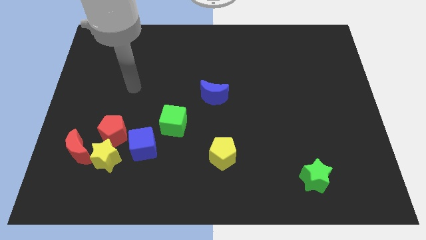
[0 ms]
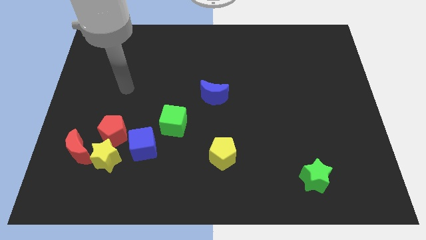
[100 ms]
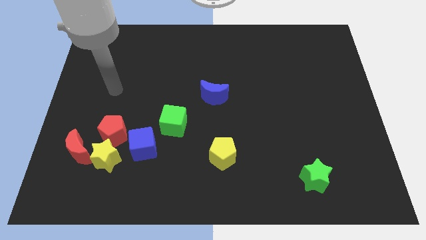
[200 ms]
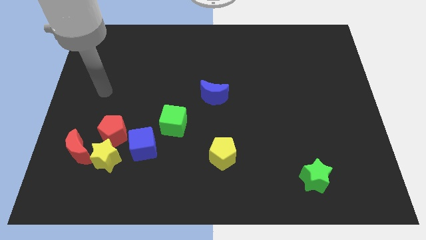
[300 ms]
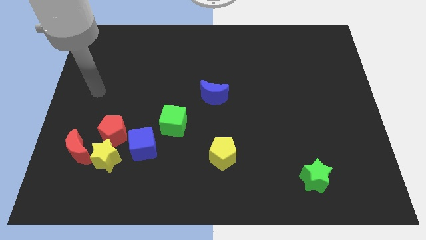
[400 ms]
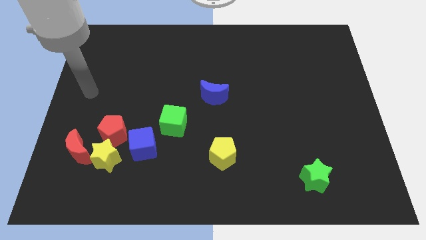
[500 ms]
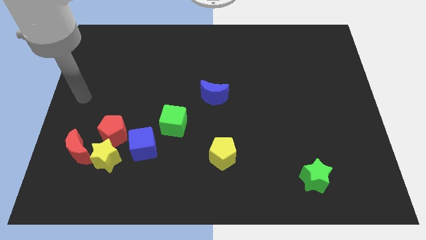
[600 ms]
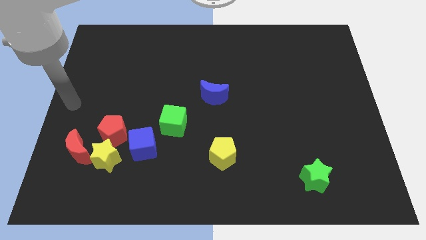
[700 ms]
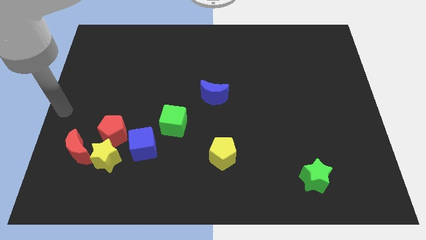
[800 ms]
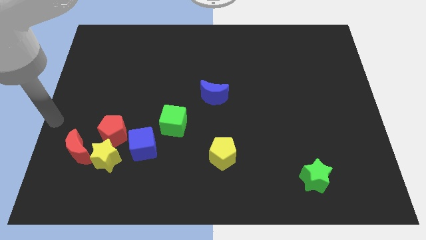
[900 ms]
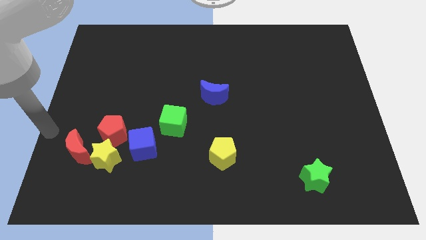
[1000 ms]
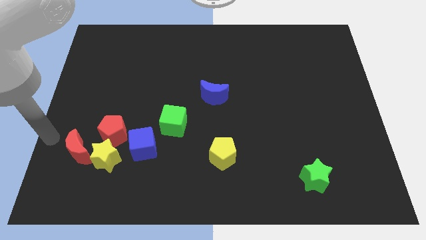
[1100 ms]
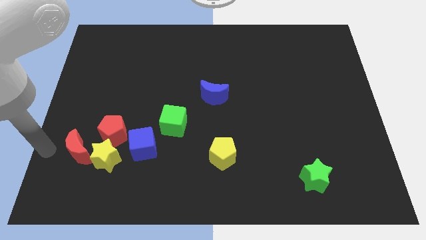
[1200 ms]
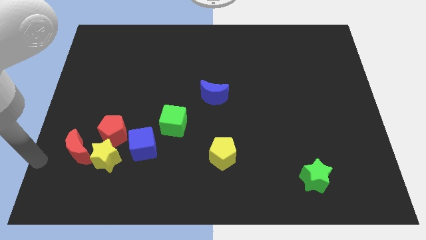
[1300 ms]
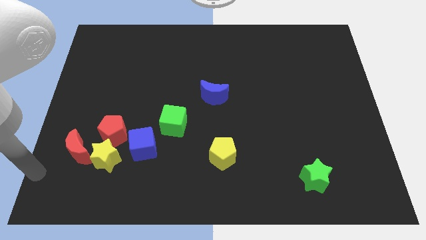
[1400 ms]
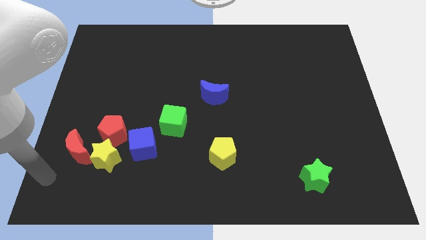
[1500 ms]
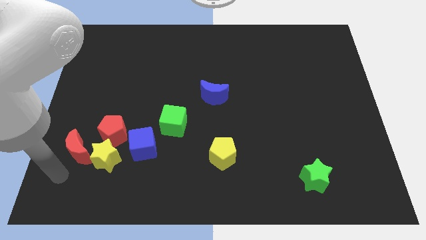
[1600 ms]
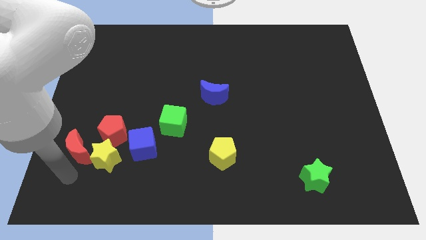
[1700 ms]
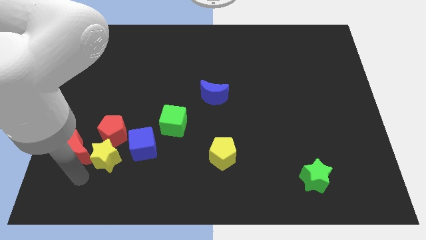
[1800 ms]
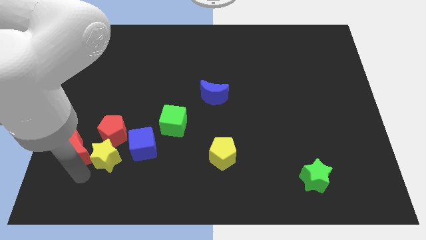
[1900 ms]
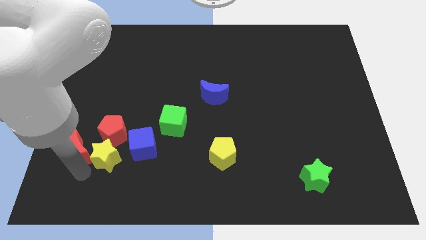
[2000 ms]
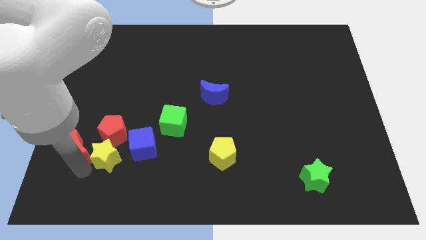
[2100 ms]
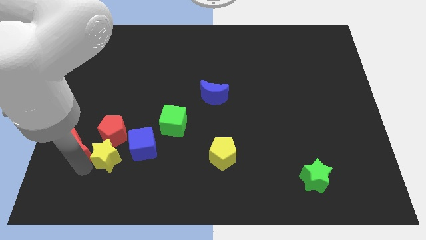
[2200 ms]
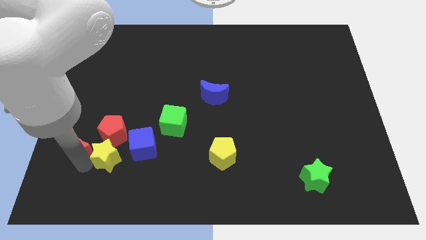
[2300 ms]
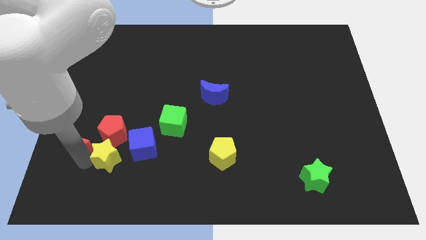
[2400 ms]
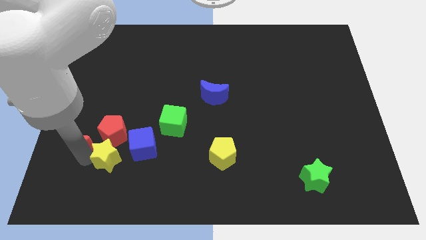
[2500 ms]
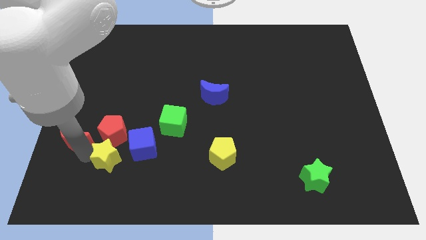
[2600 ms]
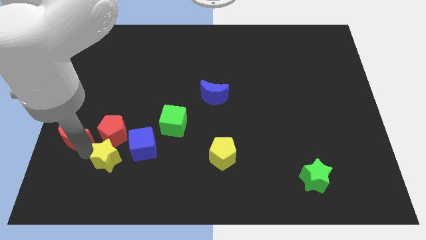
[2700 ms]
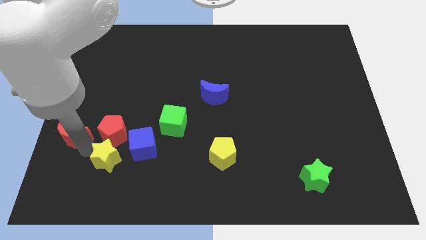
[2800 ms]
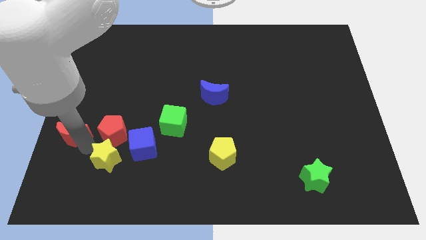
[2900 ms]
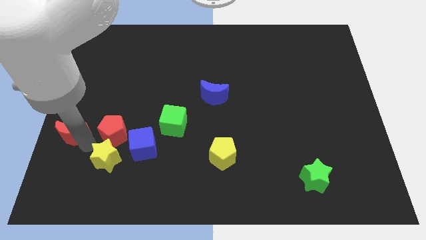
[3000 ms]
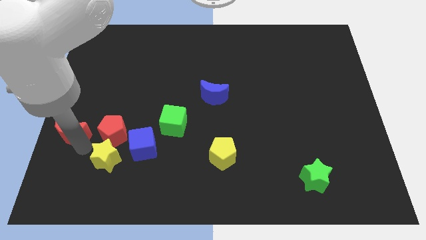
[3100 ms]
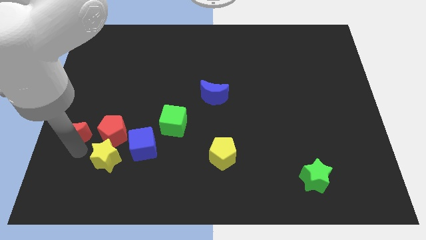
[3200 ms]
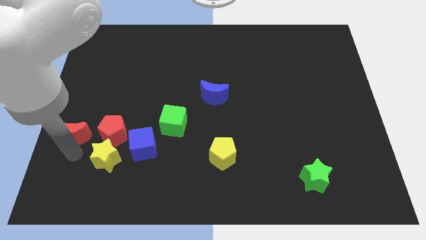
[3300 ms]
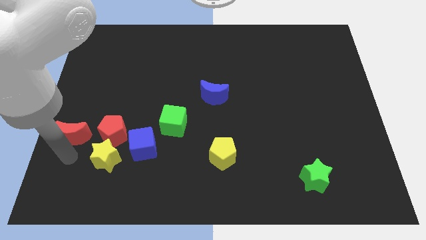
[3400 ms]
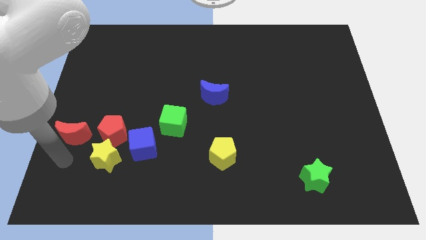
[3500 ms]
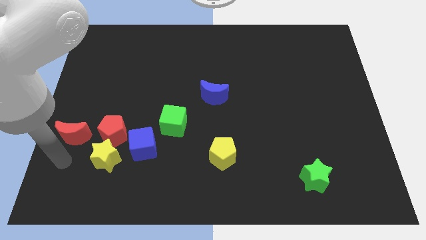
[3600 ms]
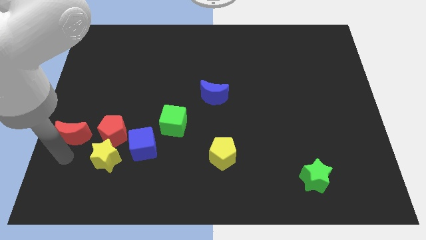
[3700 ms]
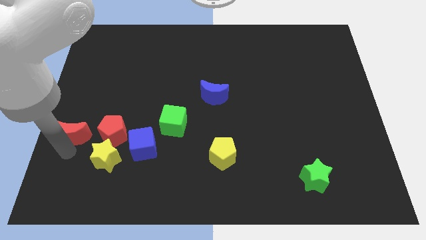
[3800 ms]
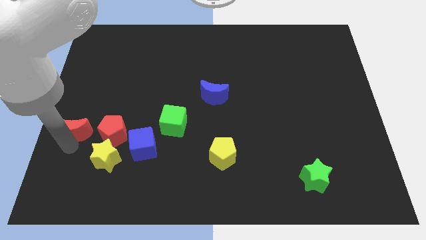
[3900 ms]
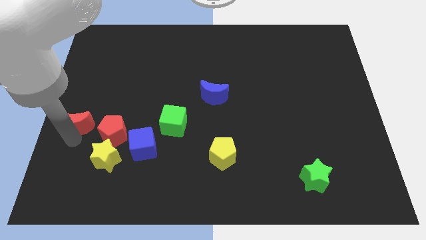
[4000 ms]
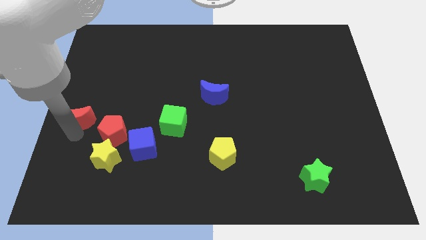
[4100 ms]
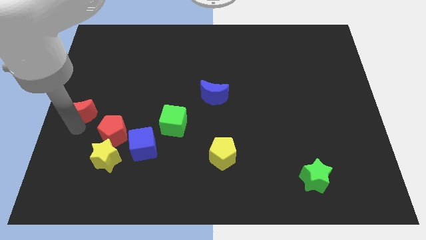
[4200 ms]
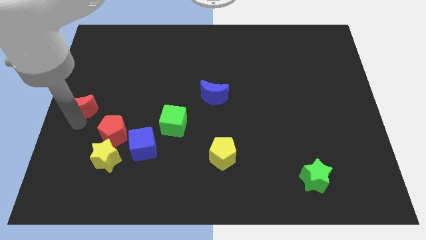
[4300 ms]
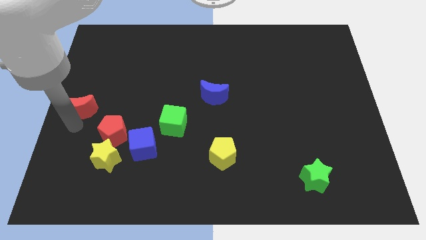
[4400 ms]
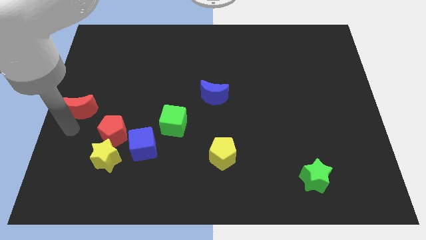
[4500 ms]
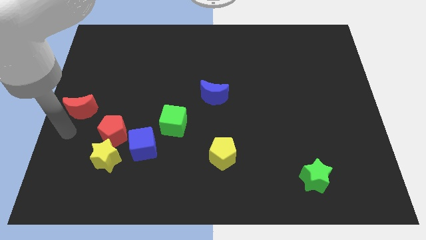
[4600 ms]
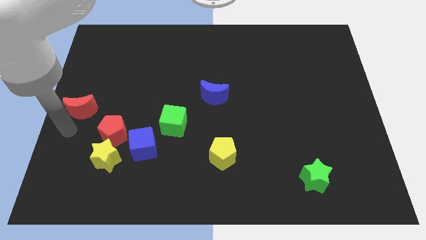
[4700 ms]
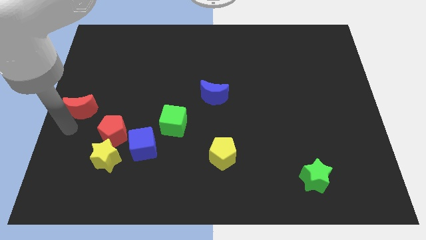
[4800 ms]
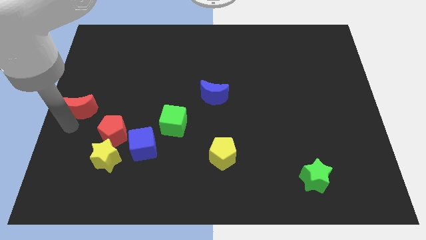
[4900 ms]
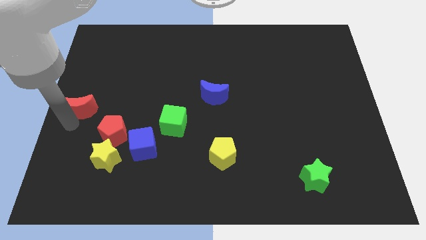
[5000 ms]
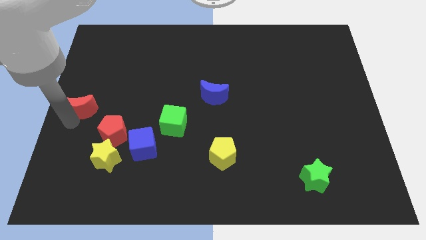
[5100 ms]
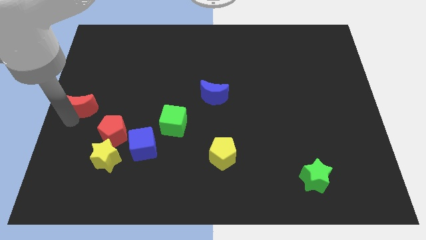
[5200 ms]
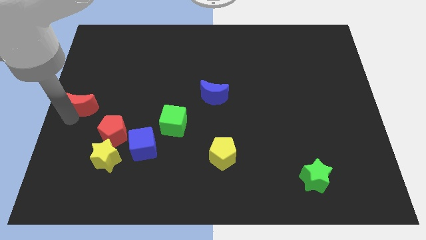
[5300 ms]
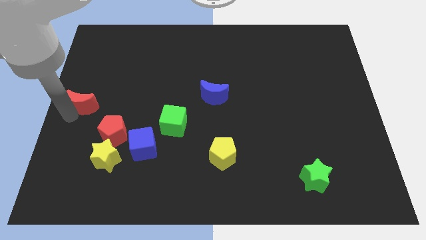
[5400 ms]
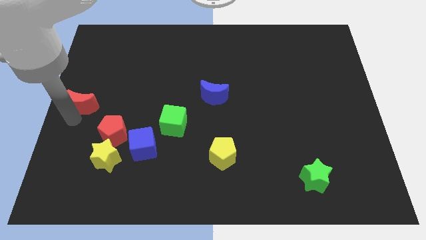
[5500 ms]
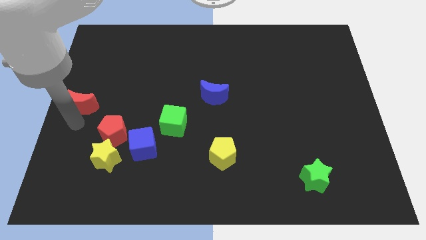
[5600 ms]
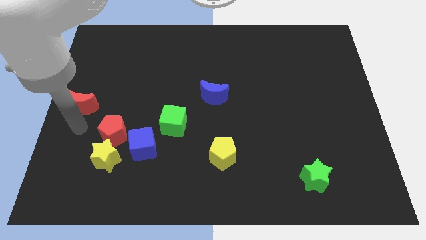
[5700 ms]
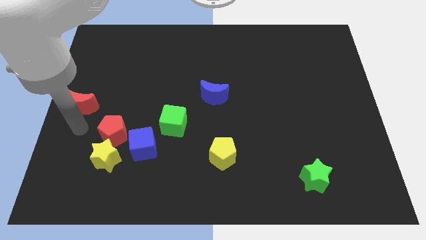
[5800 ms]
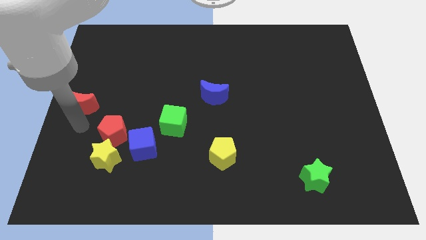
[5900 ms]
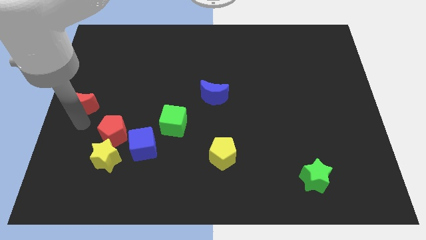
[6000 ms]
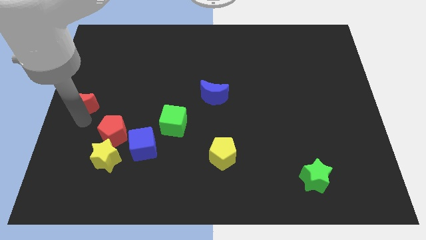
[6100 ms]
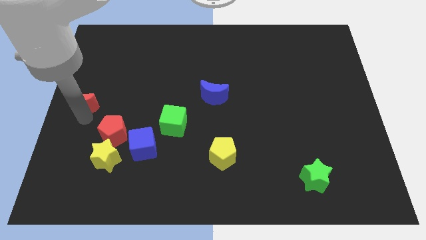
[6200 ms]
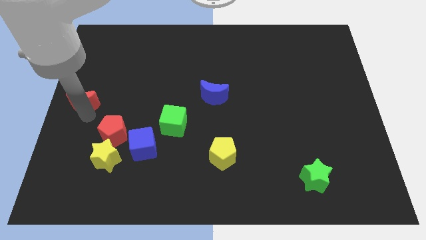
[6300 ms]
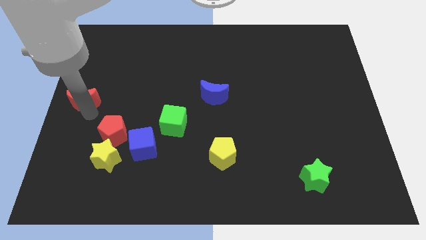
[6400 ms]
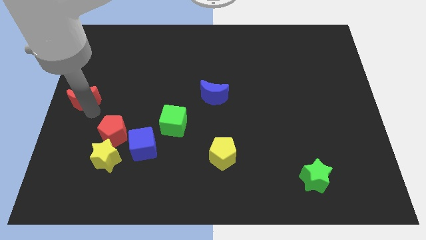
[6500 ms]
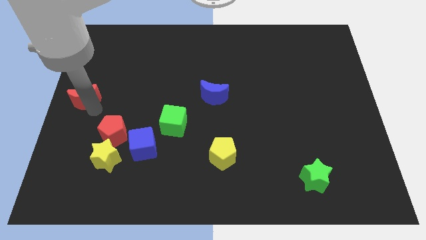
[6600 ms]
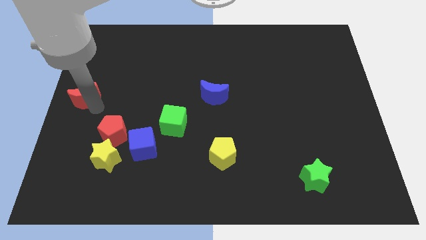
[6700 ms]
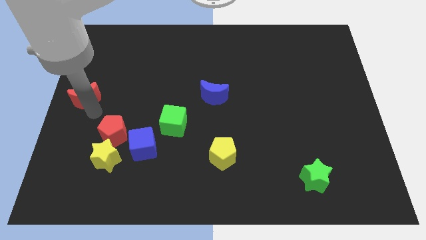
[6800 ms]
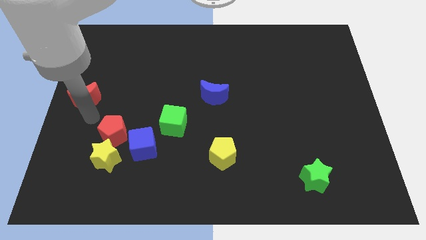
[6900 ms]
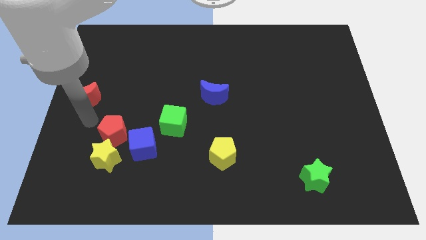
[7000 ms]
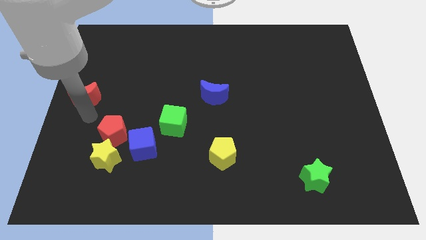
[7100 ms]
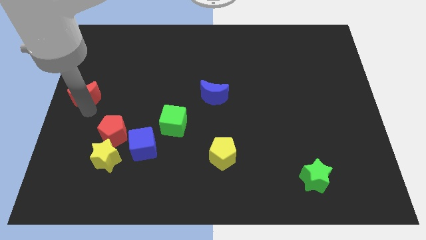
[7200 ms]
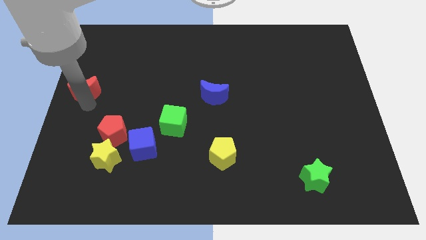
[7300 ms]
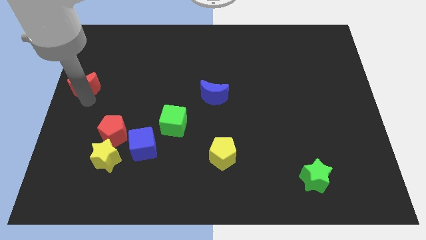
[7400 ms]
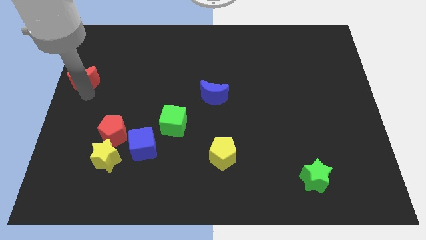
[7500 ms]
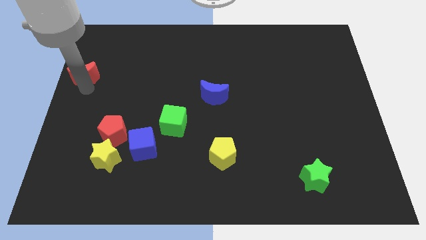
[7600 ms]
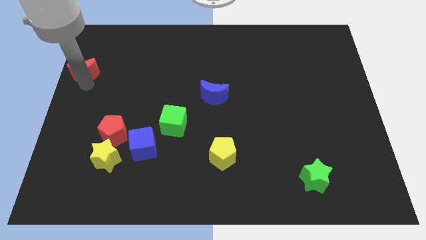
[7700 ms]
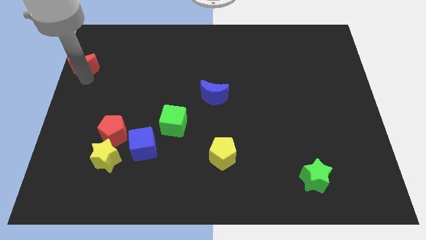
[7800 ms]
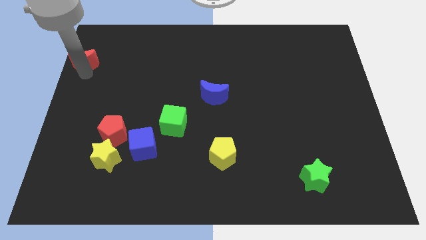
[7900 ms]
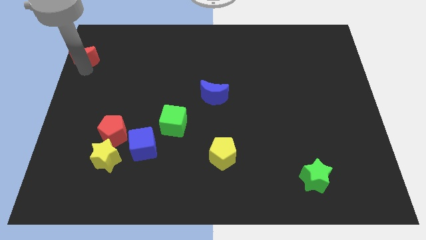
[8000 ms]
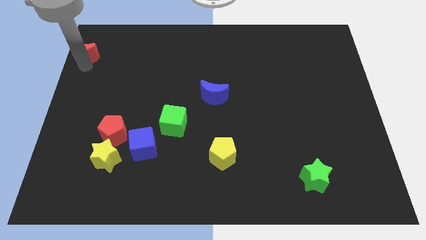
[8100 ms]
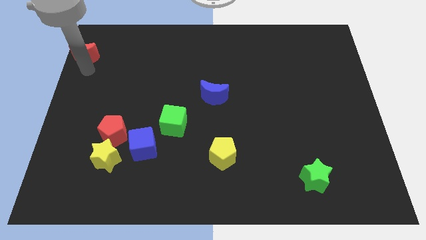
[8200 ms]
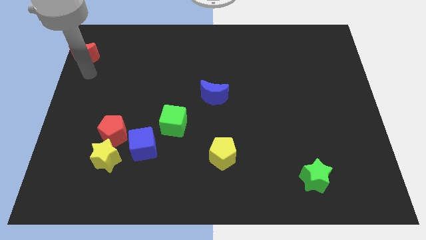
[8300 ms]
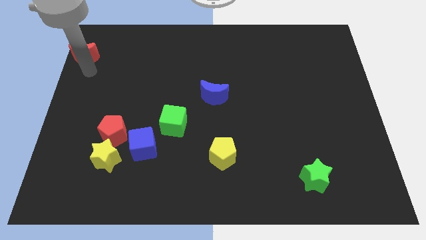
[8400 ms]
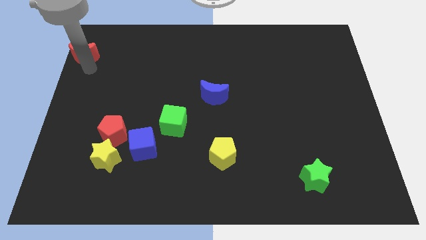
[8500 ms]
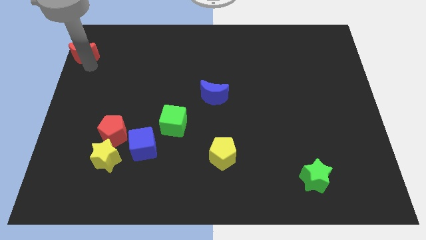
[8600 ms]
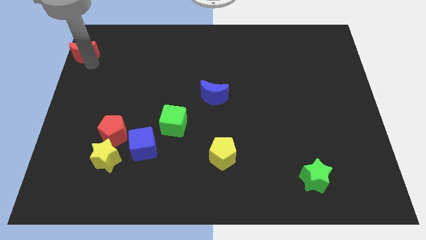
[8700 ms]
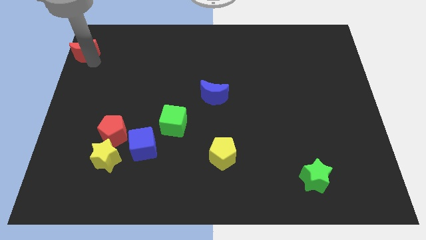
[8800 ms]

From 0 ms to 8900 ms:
push the red moon to the top left corner
